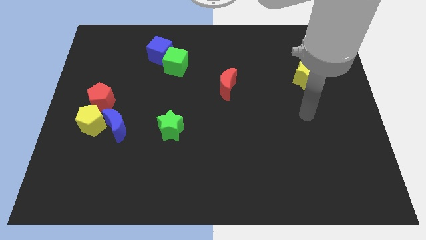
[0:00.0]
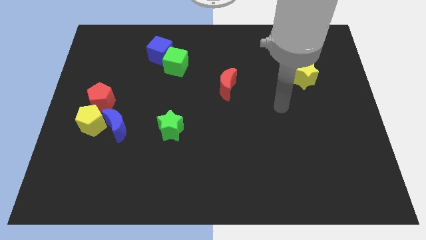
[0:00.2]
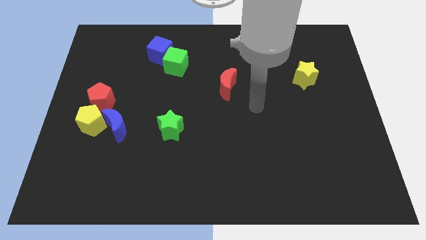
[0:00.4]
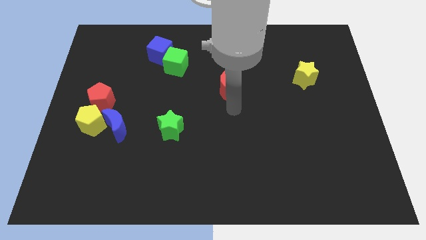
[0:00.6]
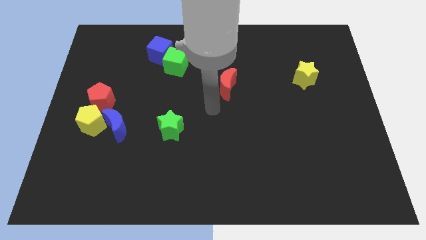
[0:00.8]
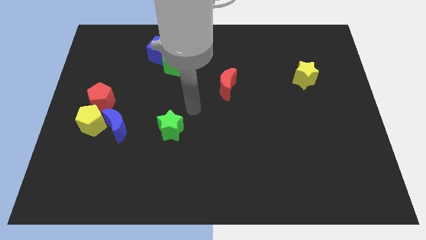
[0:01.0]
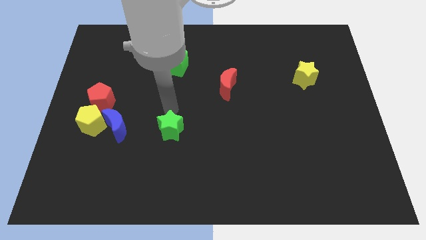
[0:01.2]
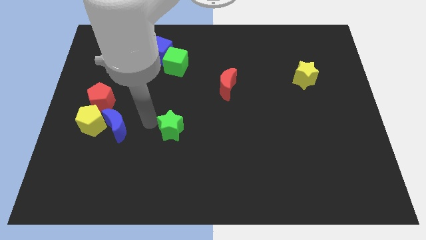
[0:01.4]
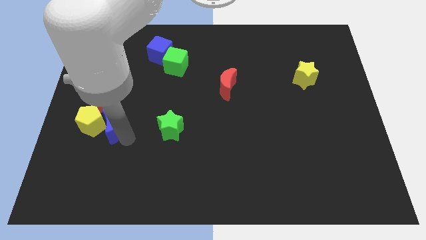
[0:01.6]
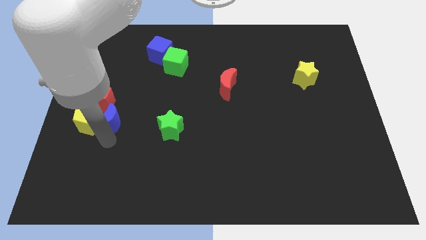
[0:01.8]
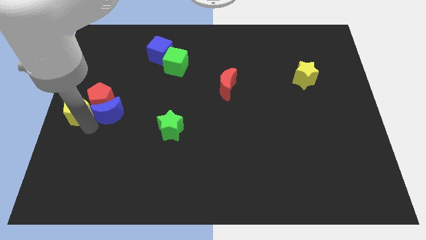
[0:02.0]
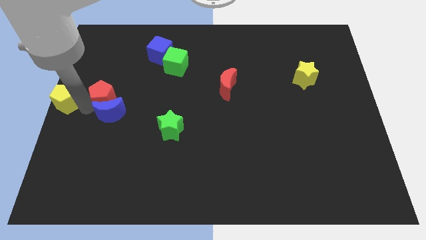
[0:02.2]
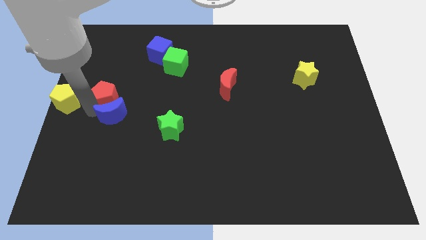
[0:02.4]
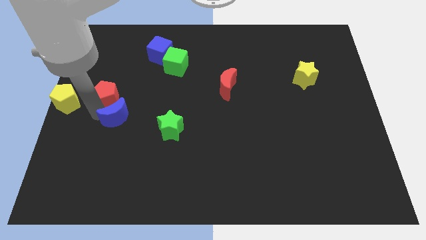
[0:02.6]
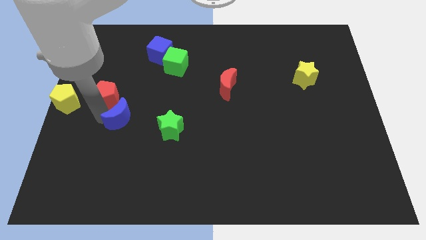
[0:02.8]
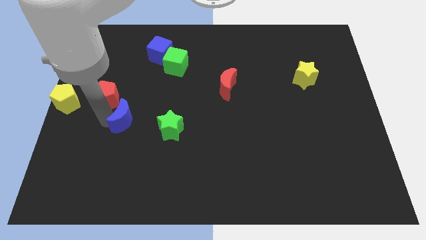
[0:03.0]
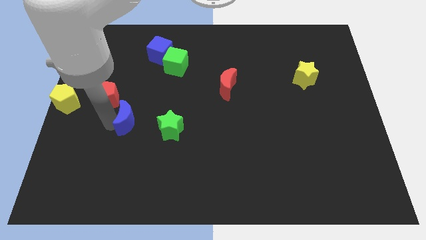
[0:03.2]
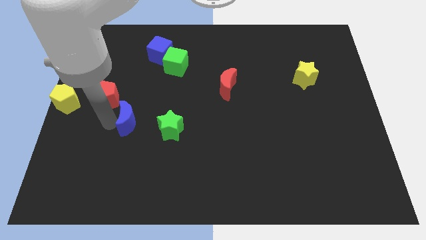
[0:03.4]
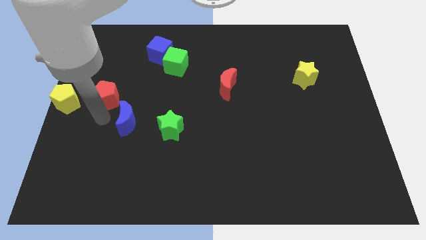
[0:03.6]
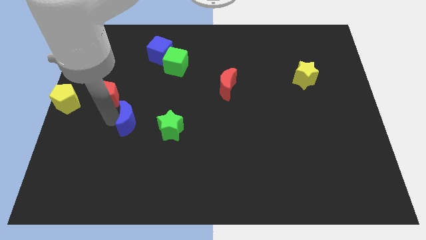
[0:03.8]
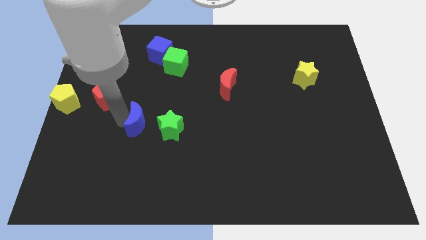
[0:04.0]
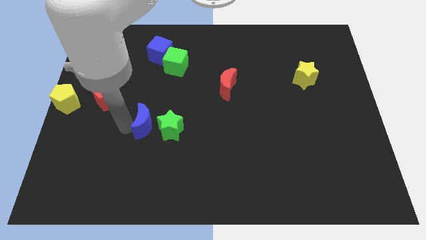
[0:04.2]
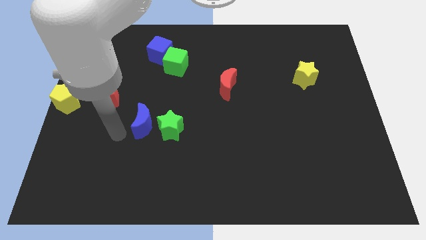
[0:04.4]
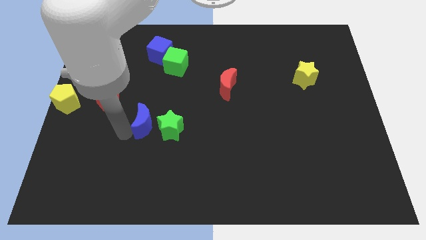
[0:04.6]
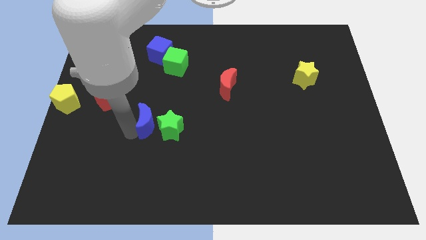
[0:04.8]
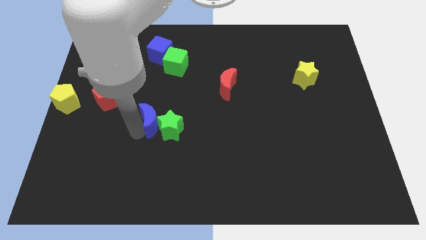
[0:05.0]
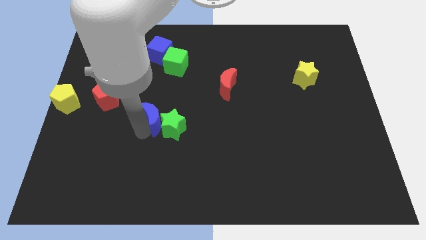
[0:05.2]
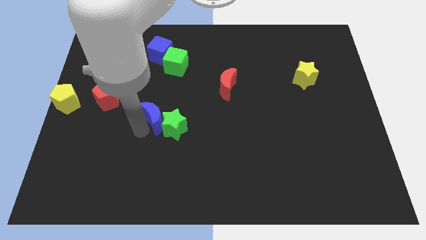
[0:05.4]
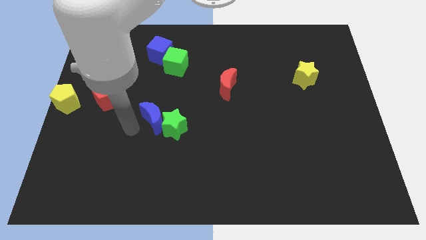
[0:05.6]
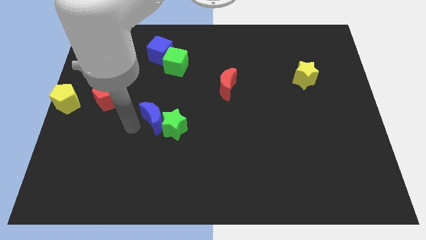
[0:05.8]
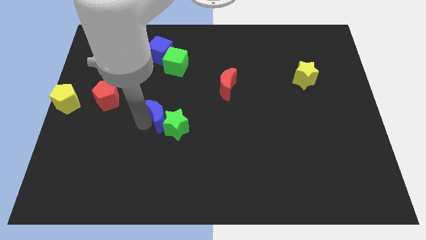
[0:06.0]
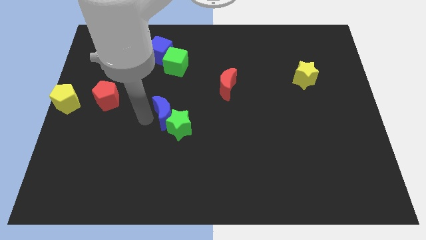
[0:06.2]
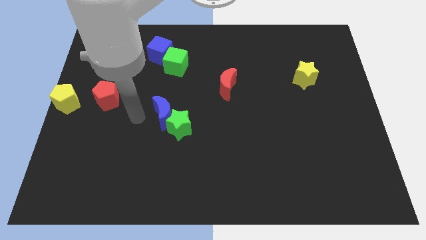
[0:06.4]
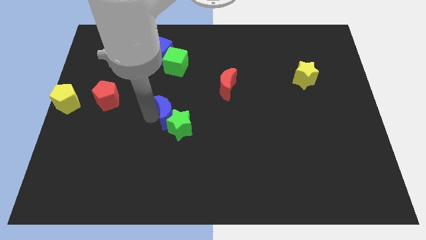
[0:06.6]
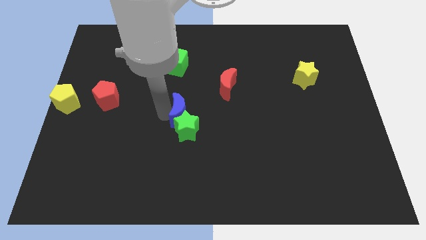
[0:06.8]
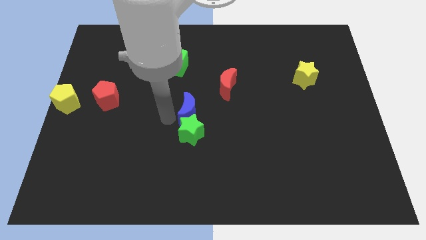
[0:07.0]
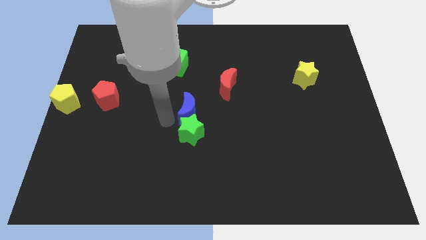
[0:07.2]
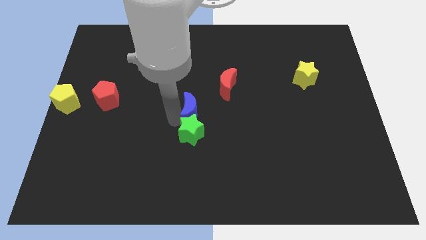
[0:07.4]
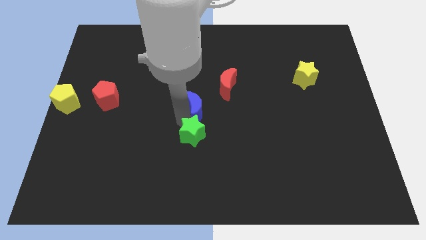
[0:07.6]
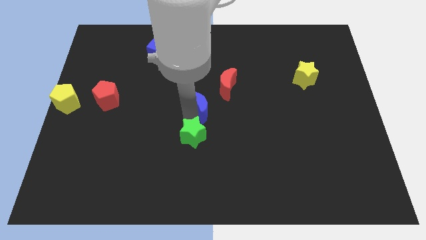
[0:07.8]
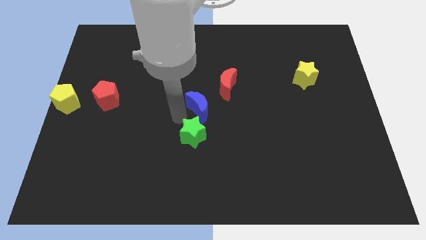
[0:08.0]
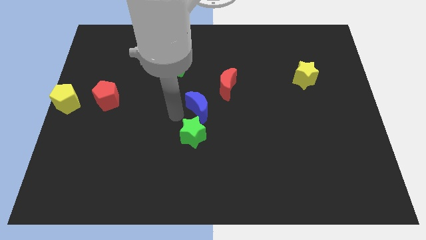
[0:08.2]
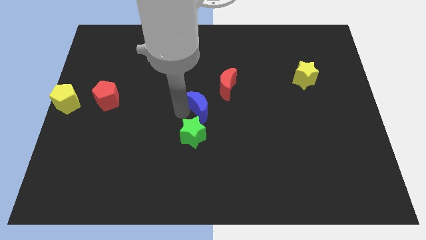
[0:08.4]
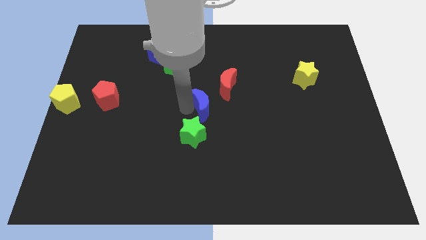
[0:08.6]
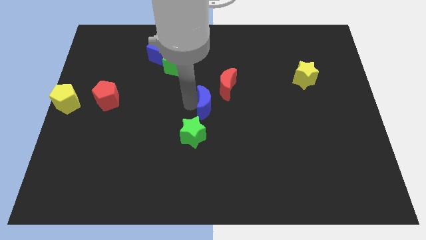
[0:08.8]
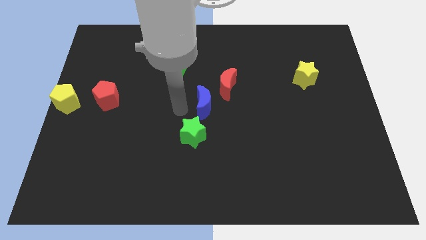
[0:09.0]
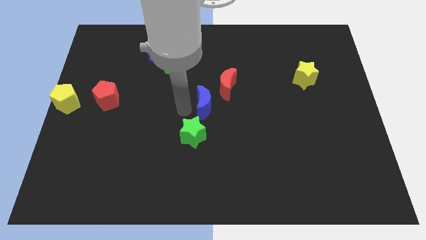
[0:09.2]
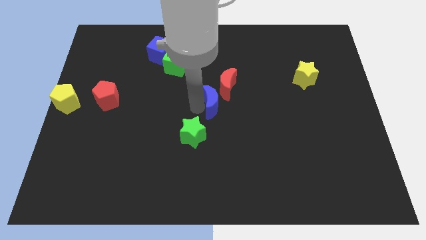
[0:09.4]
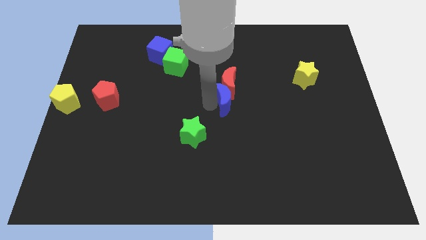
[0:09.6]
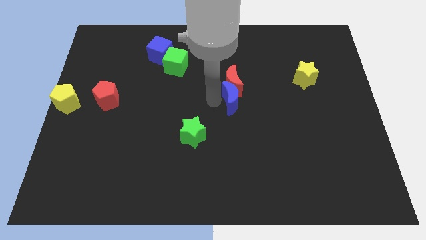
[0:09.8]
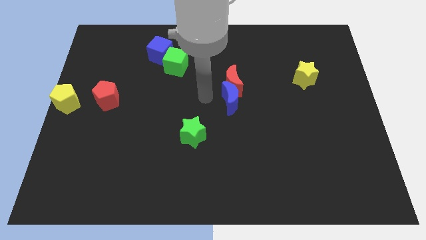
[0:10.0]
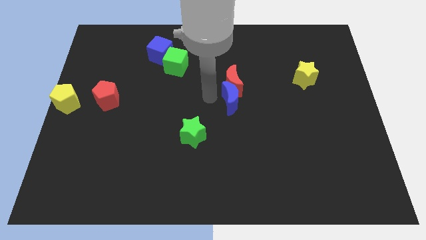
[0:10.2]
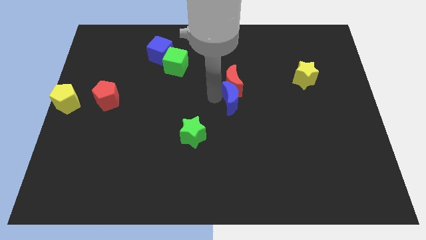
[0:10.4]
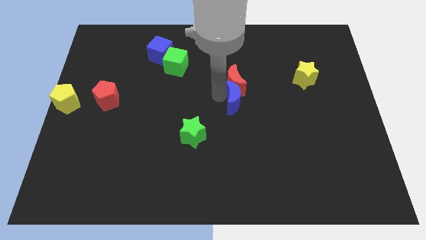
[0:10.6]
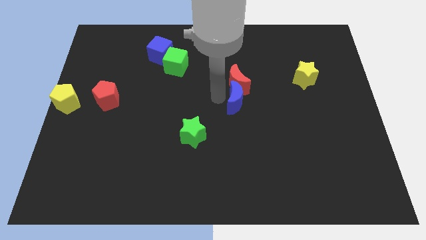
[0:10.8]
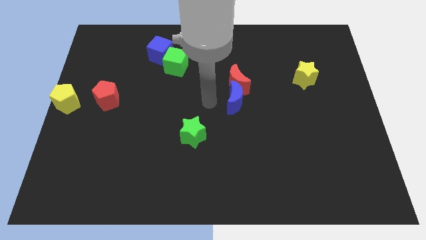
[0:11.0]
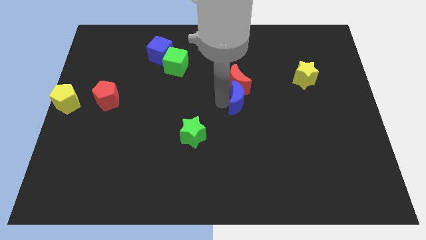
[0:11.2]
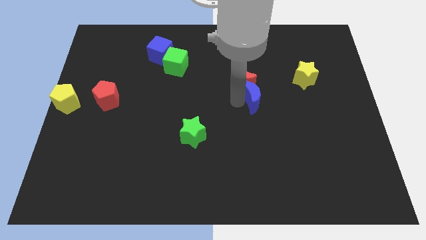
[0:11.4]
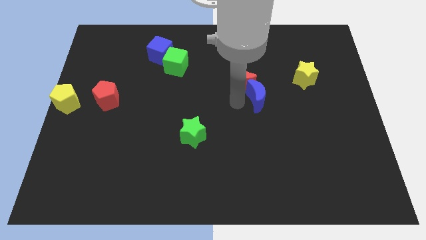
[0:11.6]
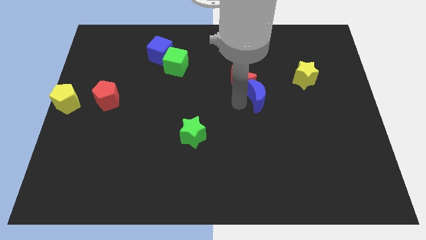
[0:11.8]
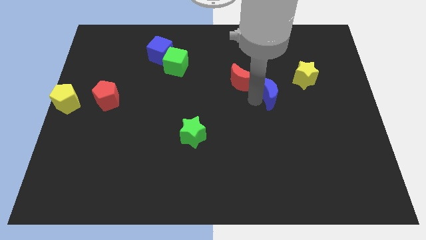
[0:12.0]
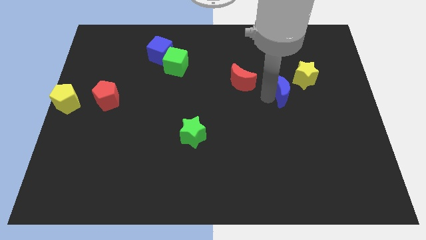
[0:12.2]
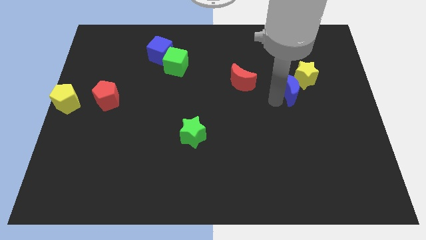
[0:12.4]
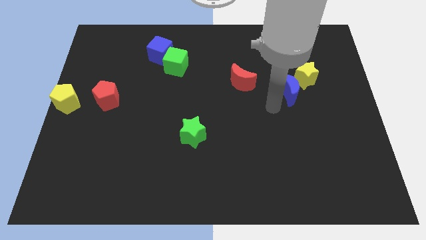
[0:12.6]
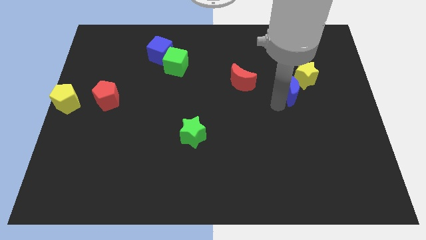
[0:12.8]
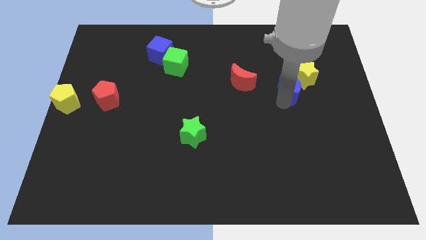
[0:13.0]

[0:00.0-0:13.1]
push the blue moon to the yellow star
